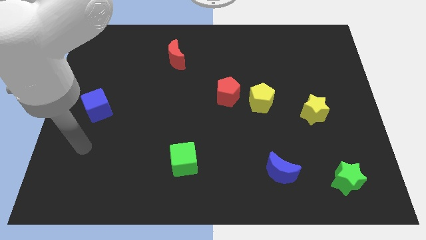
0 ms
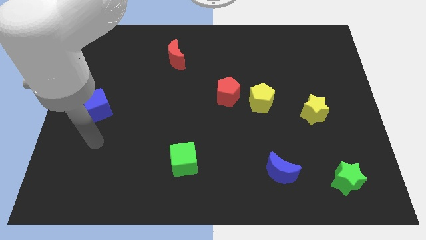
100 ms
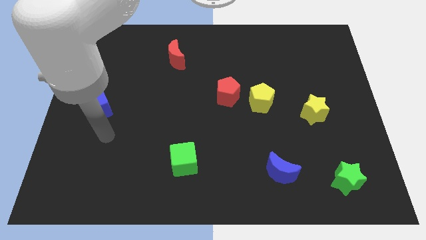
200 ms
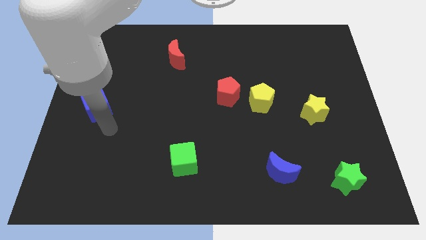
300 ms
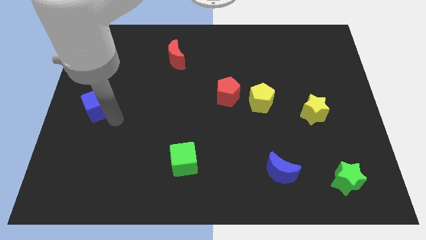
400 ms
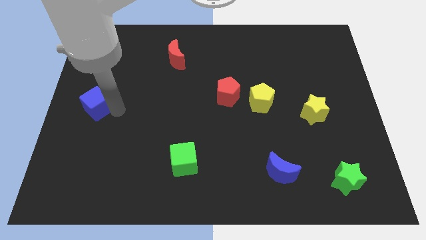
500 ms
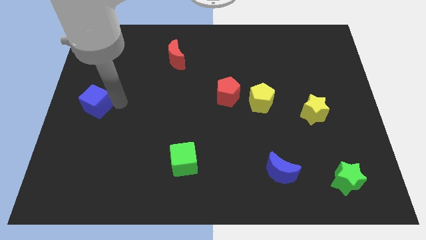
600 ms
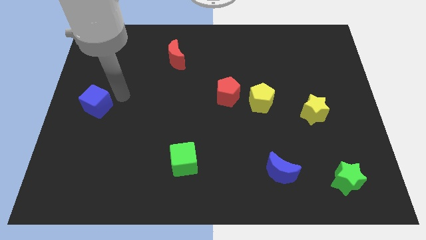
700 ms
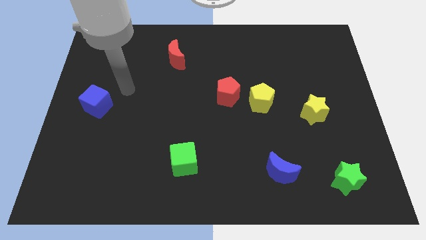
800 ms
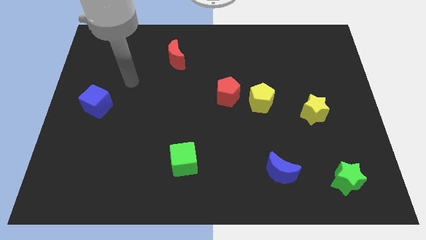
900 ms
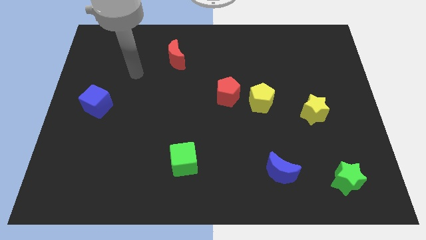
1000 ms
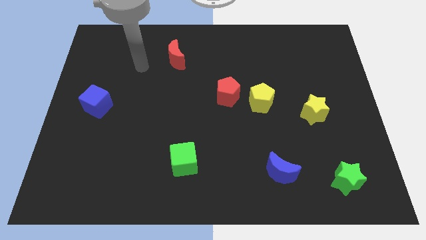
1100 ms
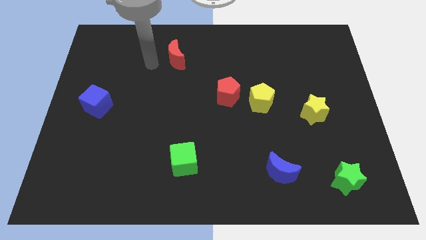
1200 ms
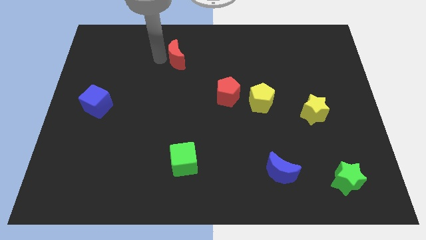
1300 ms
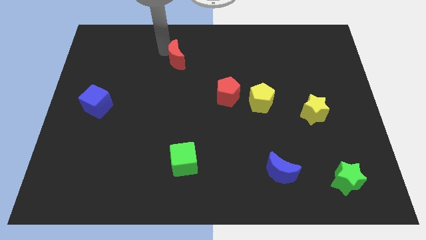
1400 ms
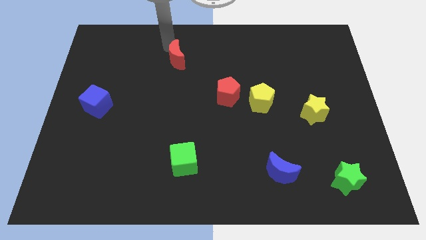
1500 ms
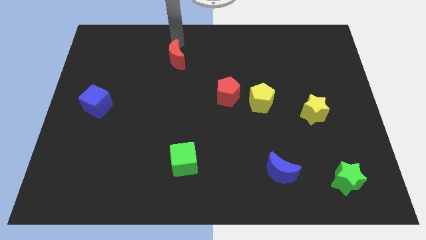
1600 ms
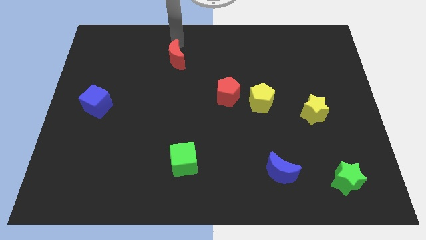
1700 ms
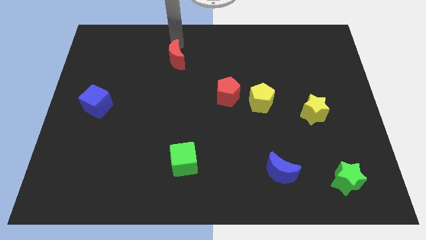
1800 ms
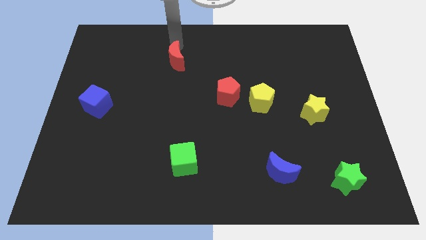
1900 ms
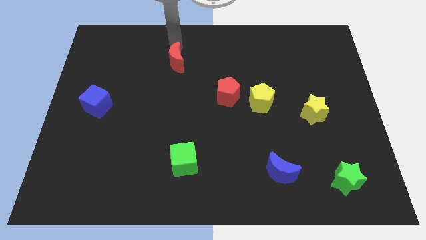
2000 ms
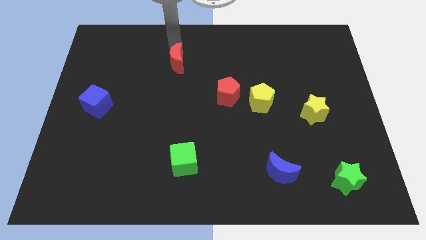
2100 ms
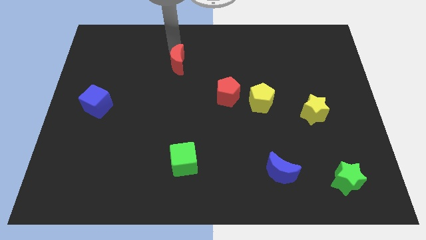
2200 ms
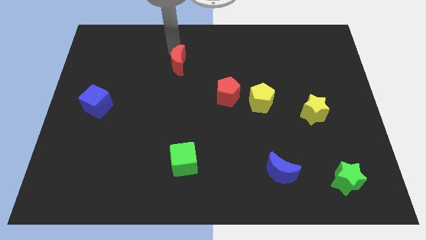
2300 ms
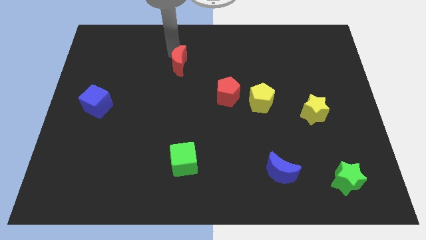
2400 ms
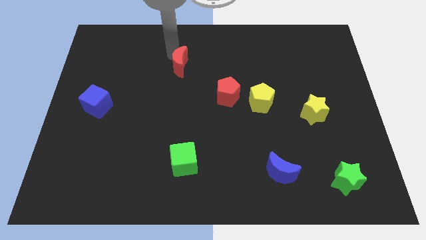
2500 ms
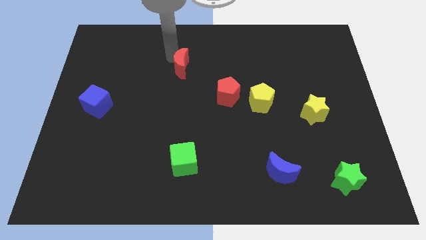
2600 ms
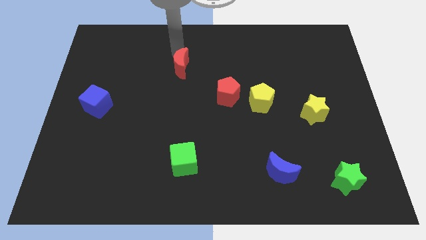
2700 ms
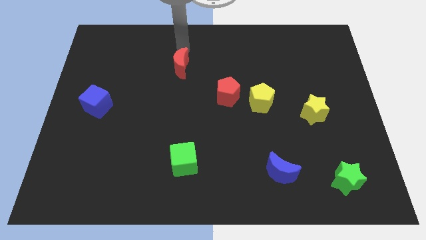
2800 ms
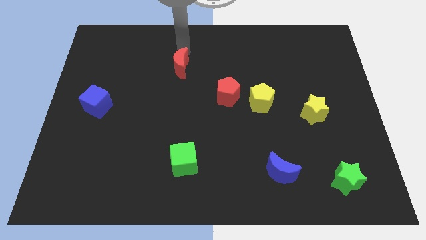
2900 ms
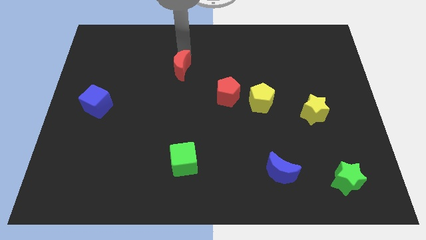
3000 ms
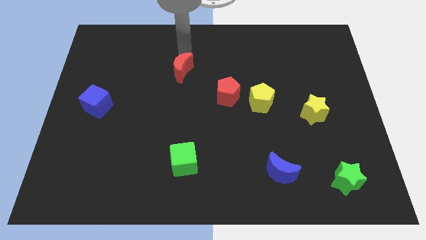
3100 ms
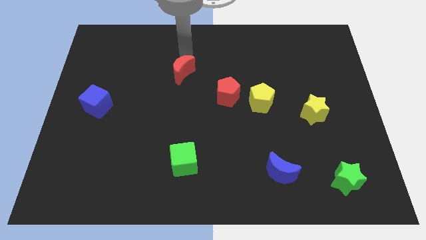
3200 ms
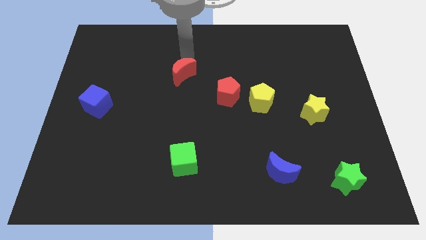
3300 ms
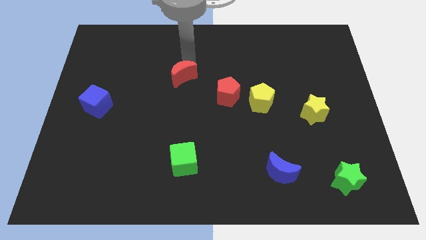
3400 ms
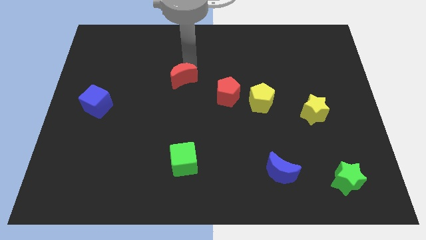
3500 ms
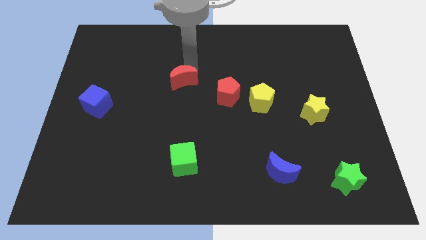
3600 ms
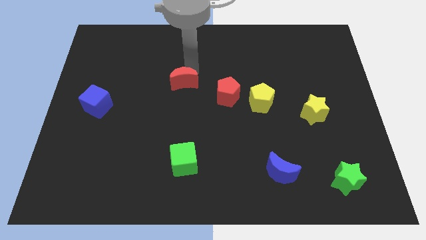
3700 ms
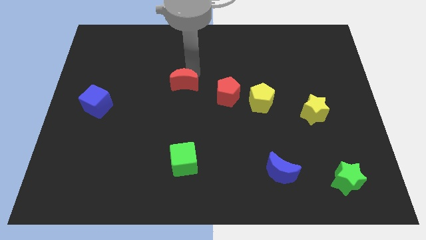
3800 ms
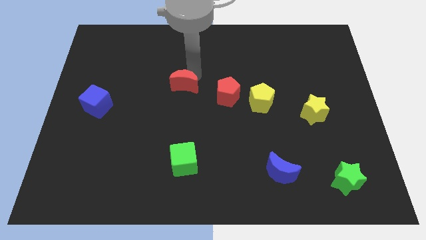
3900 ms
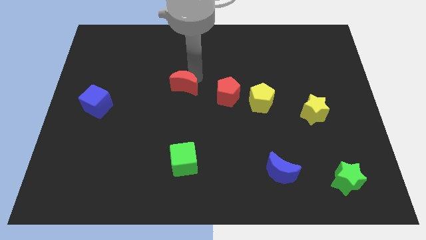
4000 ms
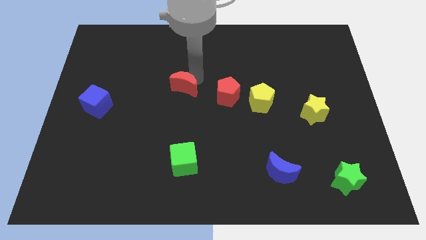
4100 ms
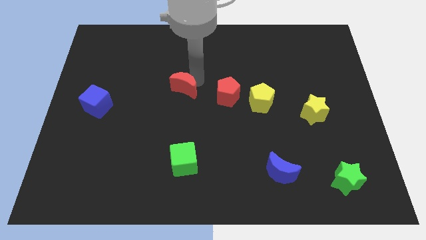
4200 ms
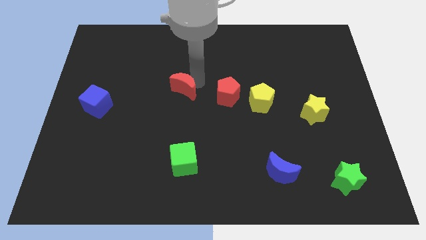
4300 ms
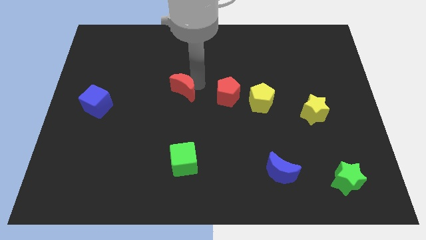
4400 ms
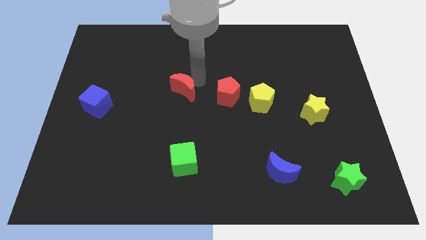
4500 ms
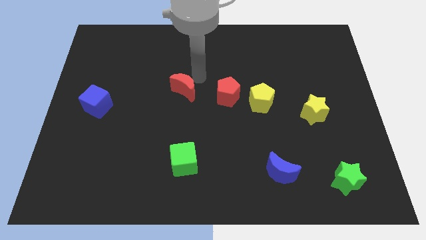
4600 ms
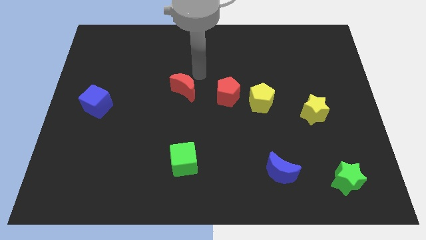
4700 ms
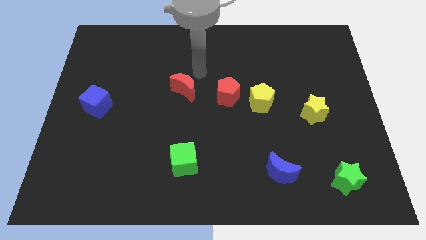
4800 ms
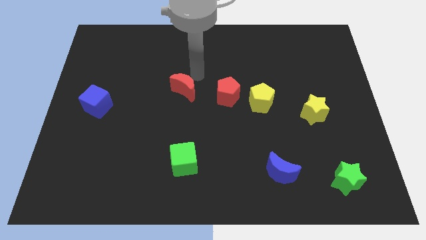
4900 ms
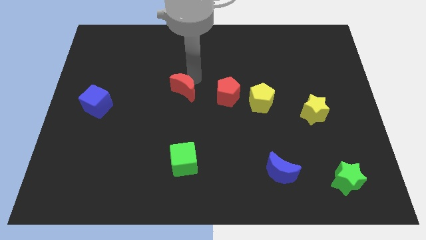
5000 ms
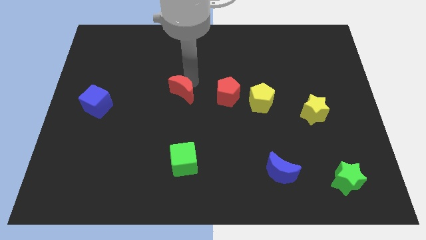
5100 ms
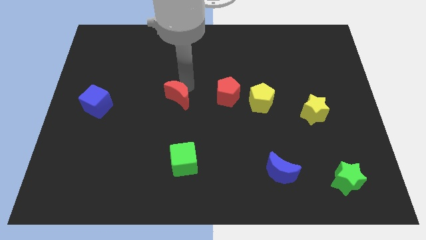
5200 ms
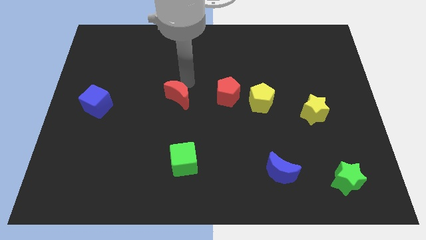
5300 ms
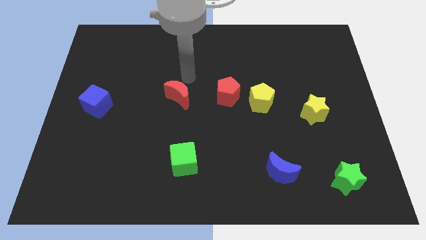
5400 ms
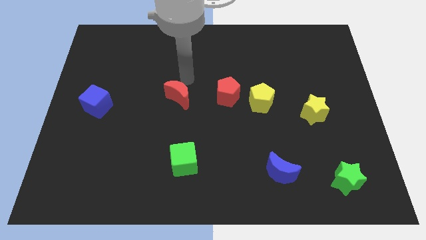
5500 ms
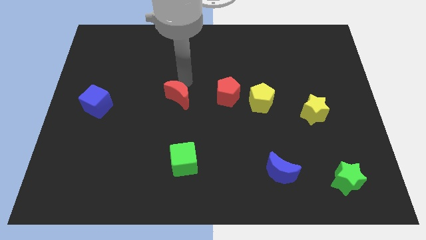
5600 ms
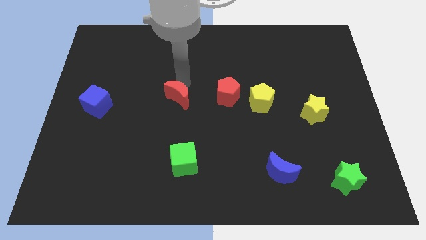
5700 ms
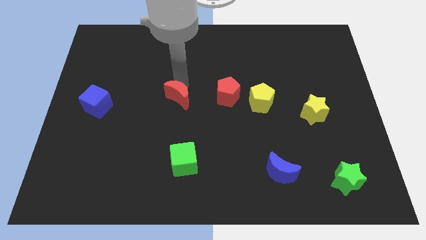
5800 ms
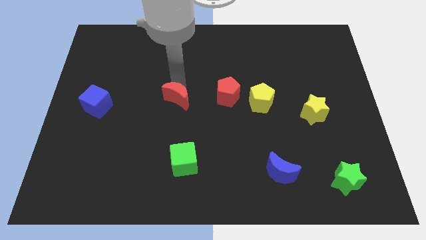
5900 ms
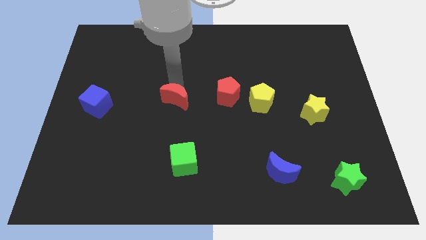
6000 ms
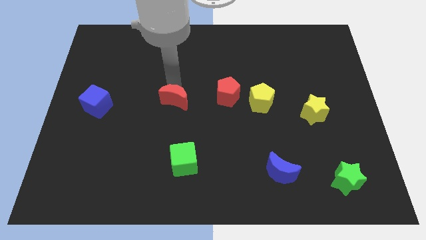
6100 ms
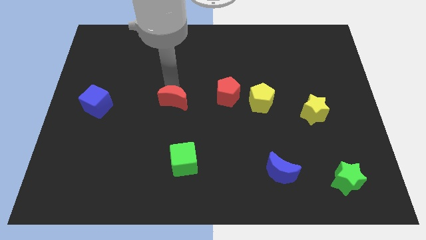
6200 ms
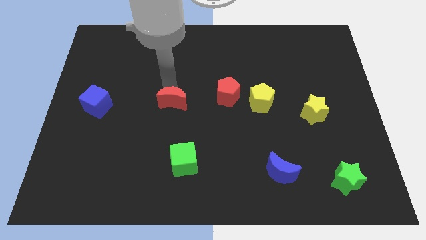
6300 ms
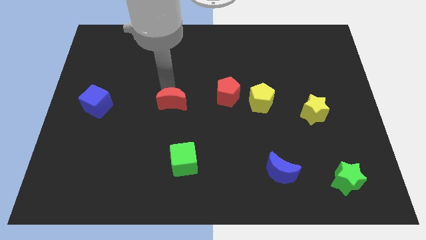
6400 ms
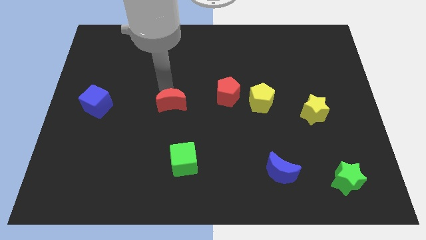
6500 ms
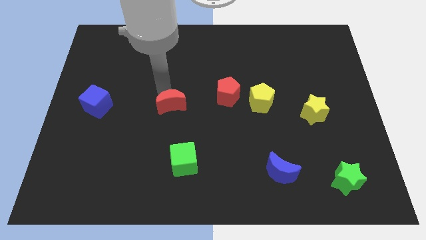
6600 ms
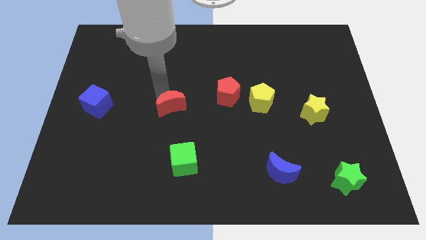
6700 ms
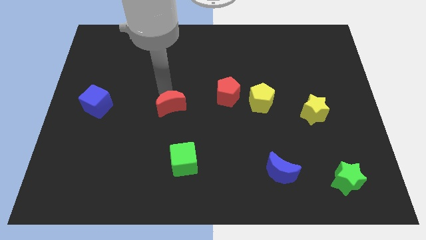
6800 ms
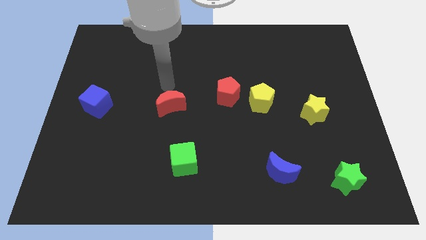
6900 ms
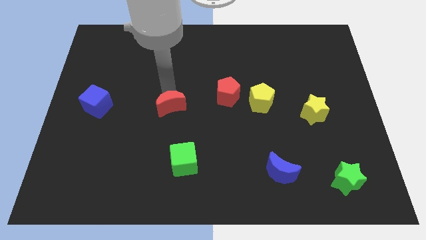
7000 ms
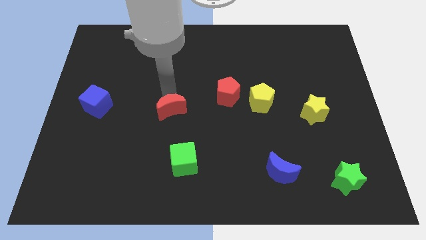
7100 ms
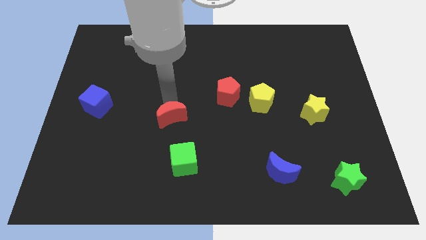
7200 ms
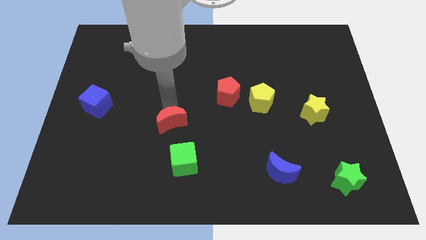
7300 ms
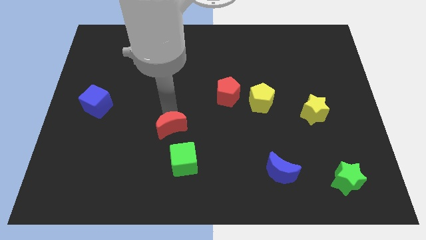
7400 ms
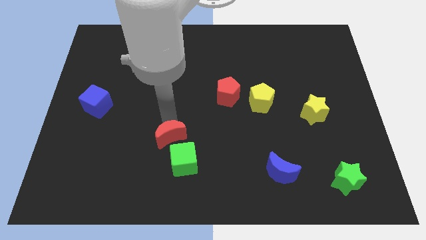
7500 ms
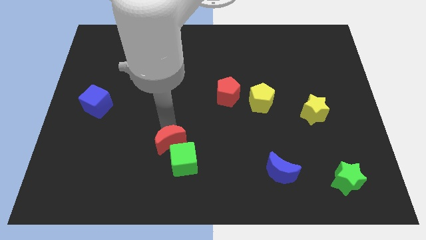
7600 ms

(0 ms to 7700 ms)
slide the red moon to the green cube
